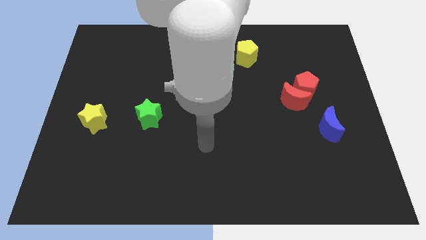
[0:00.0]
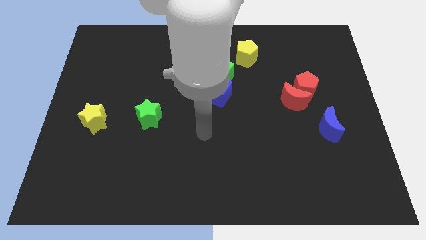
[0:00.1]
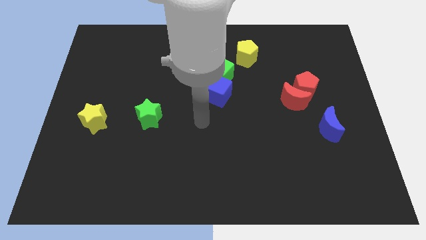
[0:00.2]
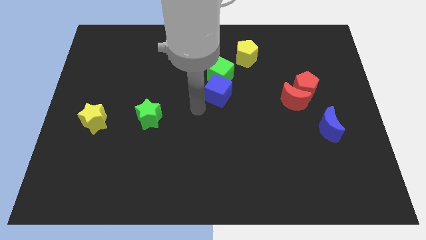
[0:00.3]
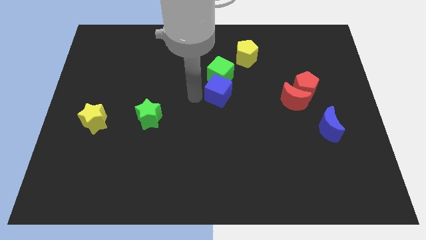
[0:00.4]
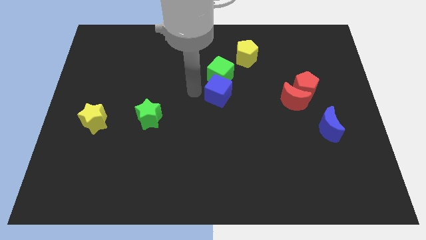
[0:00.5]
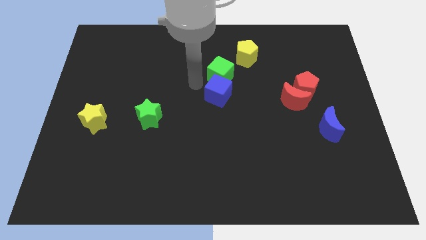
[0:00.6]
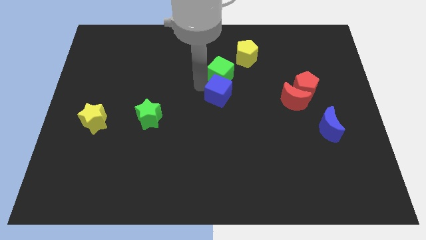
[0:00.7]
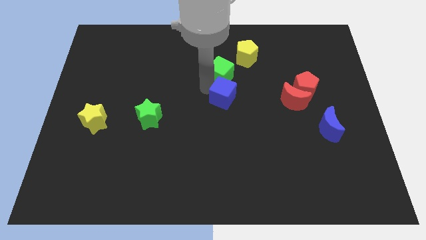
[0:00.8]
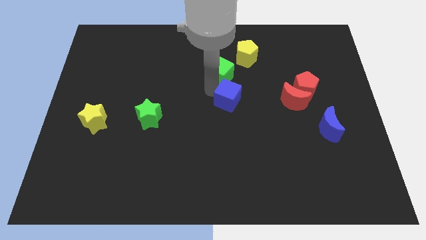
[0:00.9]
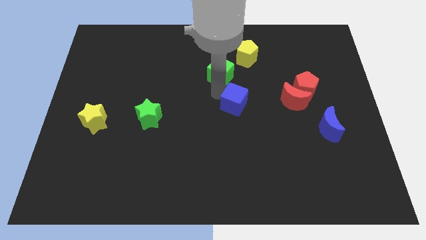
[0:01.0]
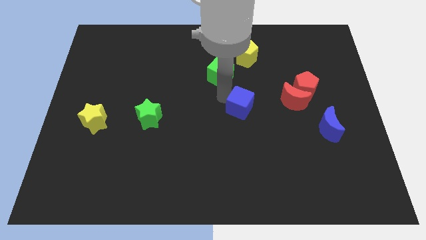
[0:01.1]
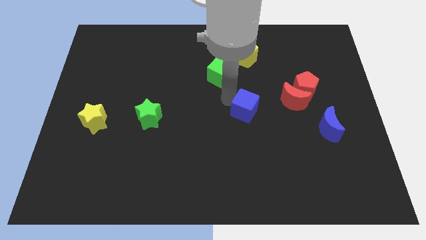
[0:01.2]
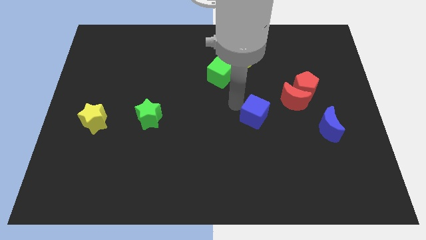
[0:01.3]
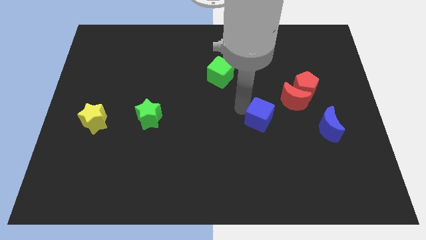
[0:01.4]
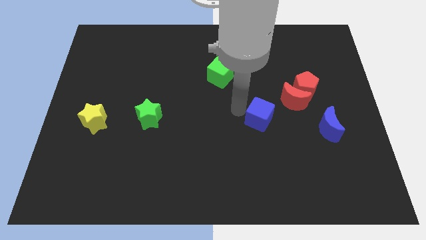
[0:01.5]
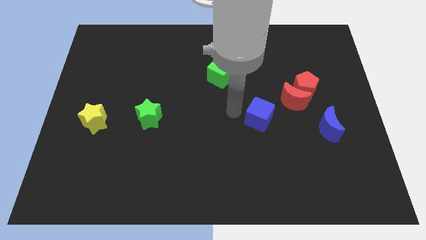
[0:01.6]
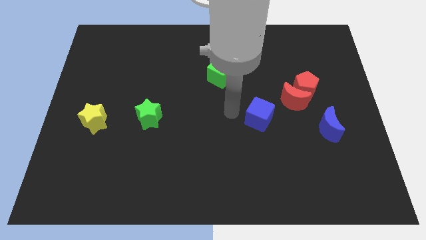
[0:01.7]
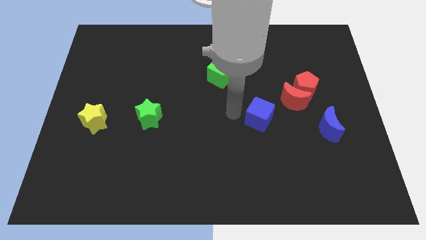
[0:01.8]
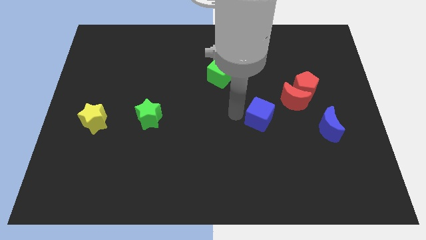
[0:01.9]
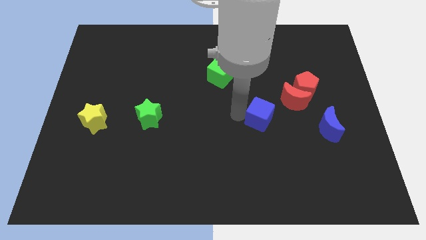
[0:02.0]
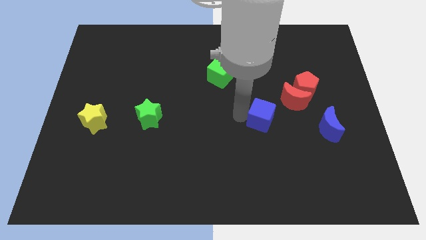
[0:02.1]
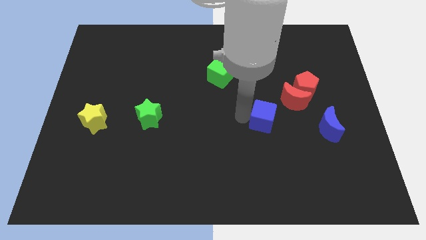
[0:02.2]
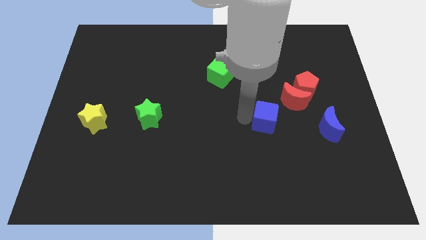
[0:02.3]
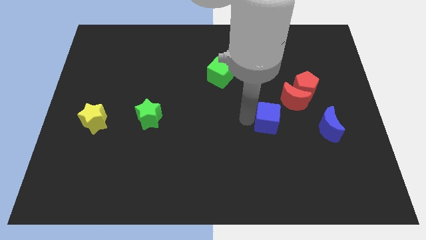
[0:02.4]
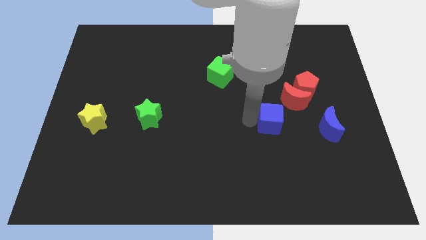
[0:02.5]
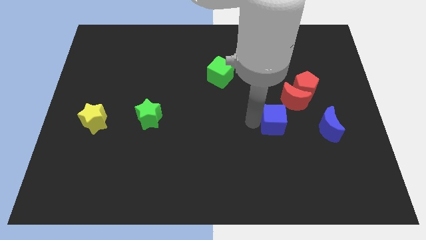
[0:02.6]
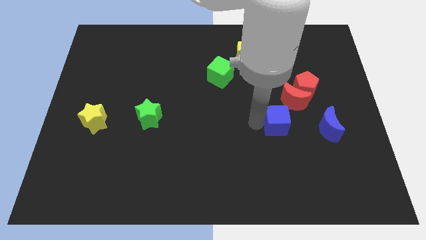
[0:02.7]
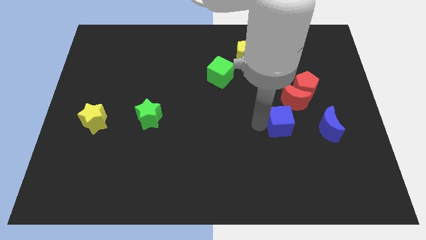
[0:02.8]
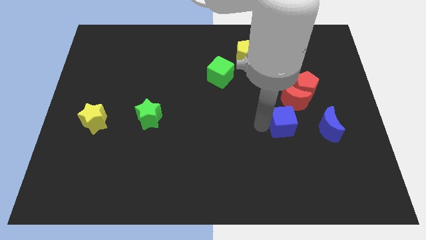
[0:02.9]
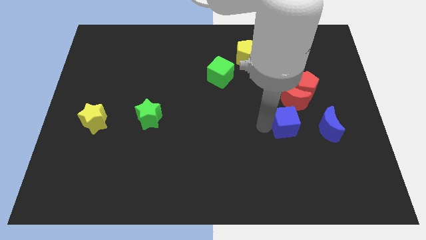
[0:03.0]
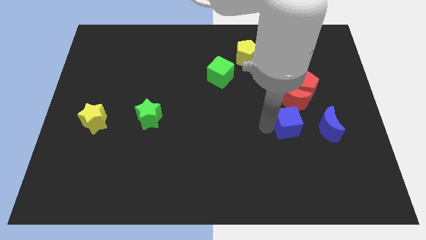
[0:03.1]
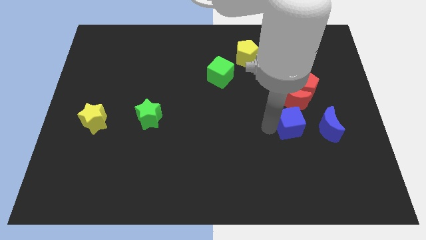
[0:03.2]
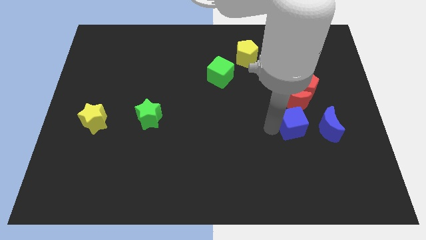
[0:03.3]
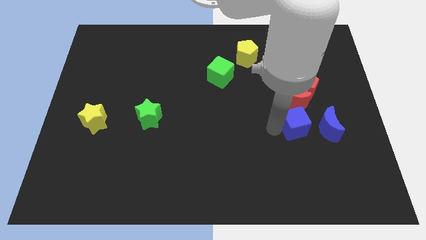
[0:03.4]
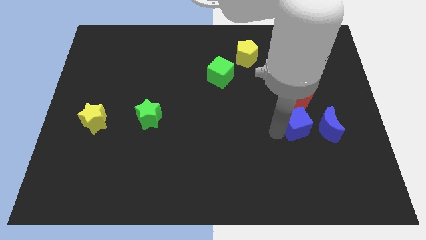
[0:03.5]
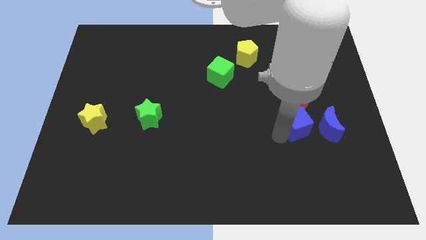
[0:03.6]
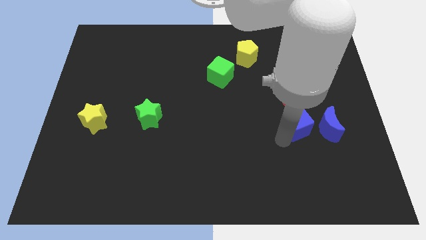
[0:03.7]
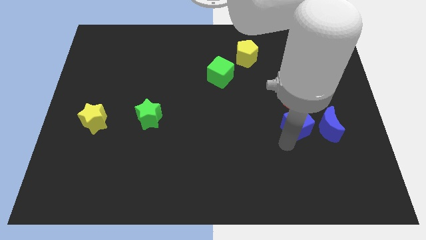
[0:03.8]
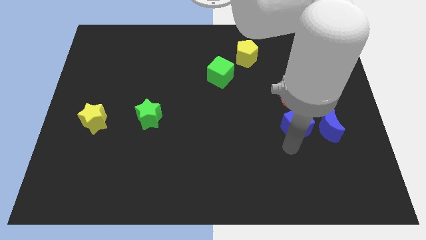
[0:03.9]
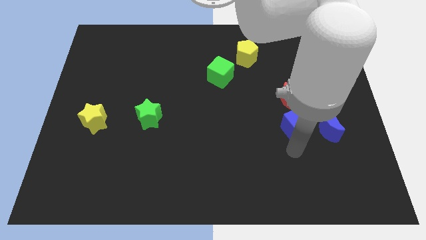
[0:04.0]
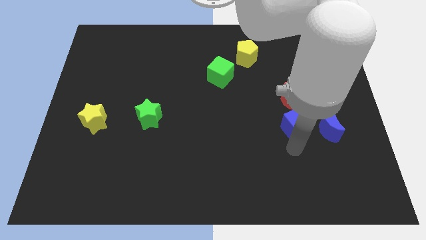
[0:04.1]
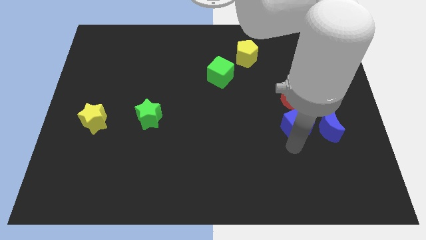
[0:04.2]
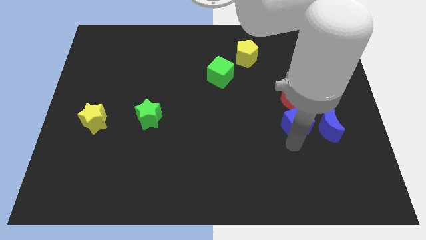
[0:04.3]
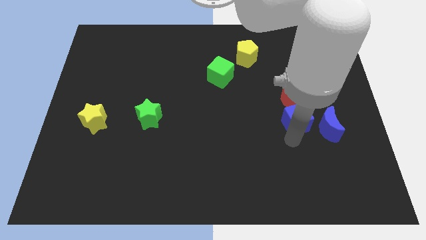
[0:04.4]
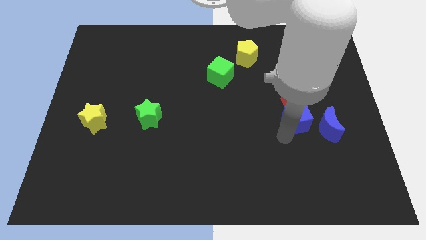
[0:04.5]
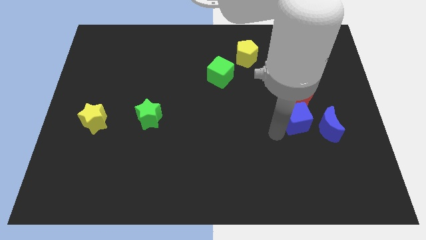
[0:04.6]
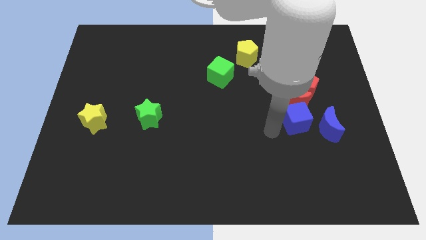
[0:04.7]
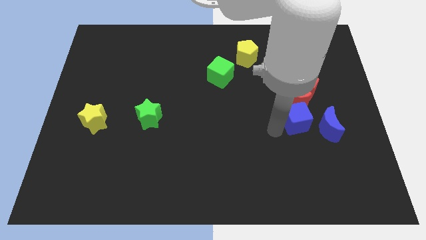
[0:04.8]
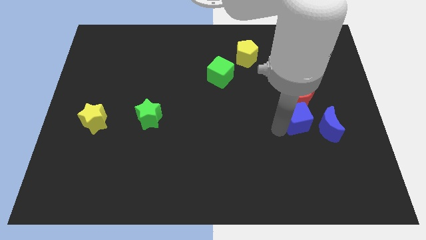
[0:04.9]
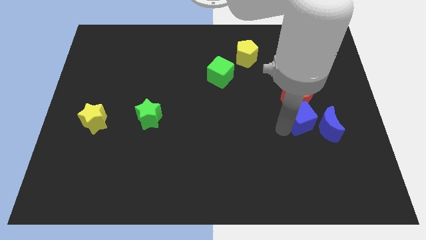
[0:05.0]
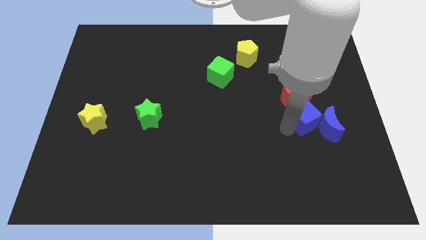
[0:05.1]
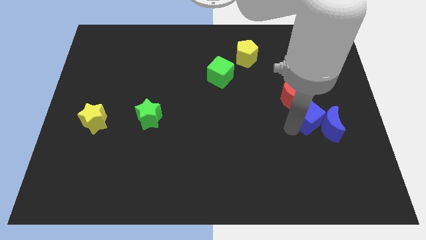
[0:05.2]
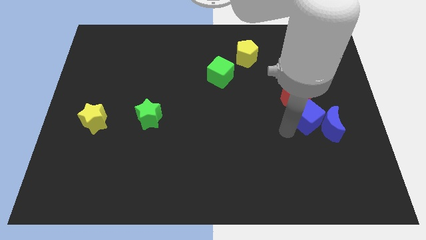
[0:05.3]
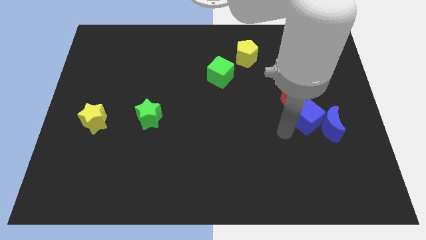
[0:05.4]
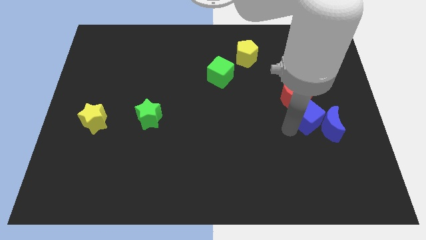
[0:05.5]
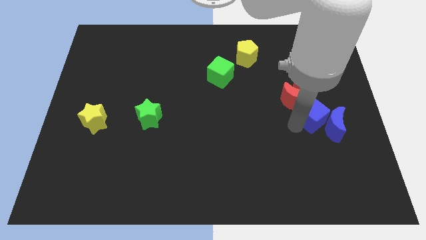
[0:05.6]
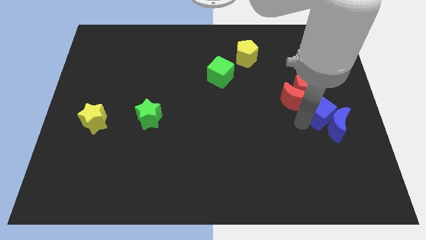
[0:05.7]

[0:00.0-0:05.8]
push the blue cube to the bottom right side of the red pentagon

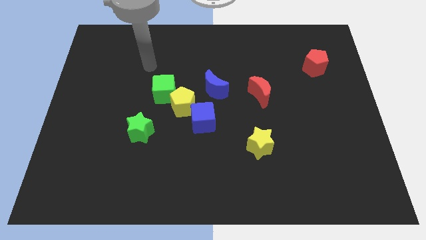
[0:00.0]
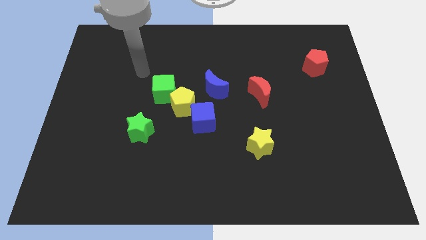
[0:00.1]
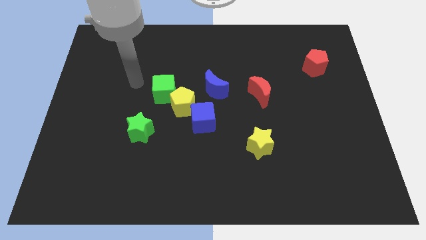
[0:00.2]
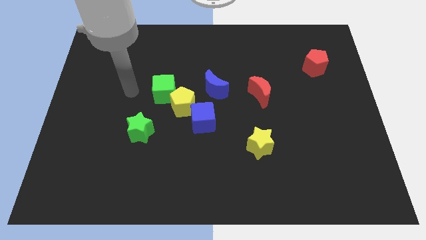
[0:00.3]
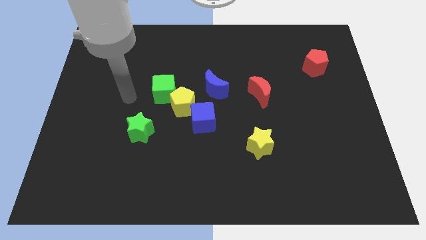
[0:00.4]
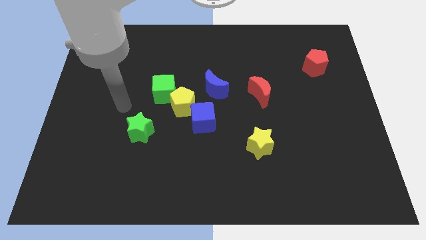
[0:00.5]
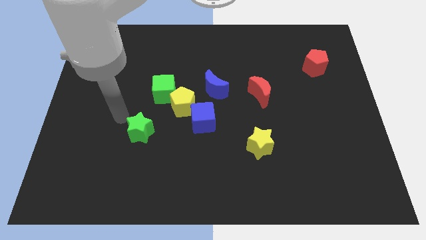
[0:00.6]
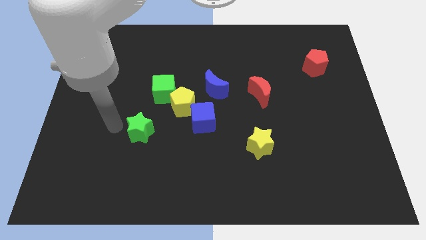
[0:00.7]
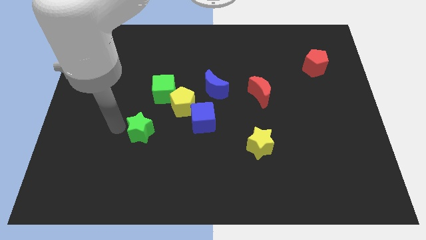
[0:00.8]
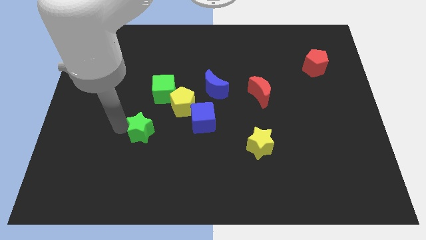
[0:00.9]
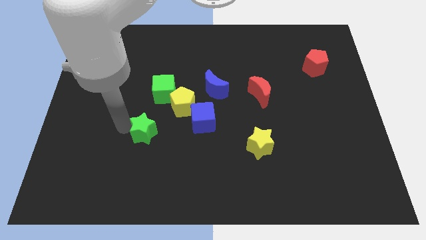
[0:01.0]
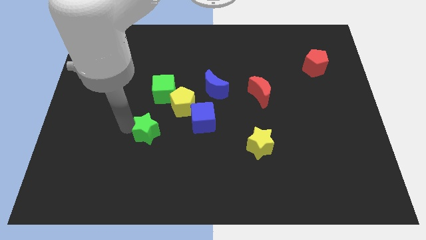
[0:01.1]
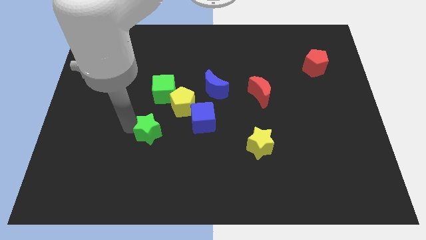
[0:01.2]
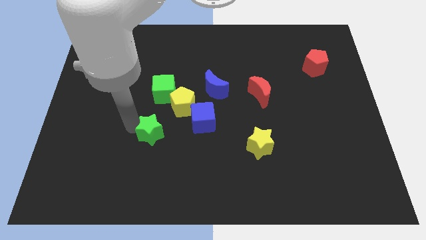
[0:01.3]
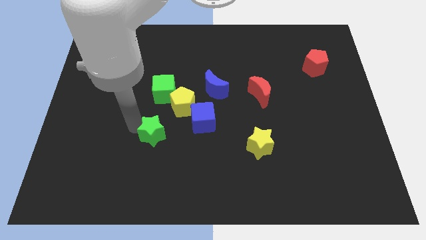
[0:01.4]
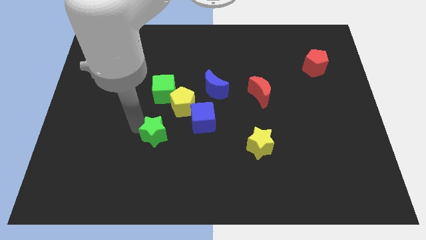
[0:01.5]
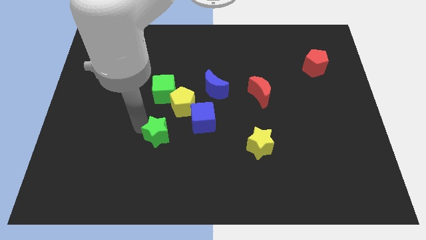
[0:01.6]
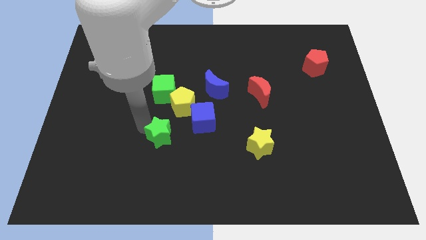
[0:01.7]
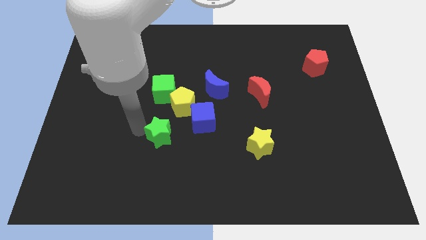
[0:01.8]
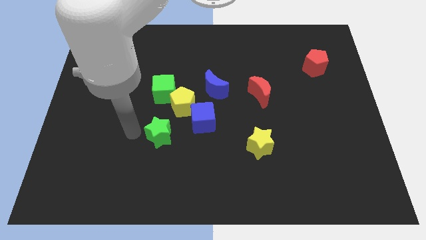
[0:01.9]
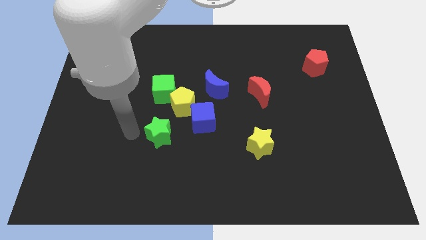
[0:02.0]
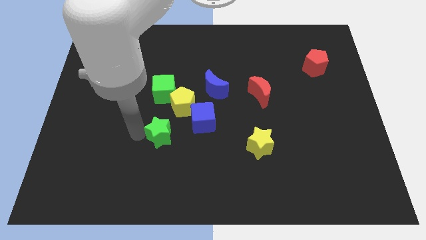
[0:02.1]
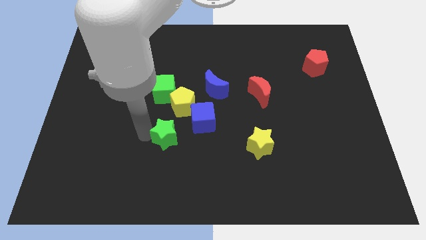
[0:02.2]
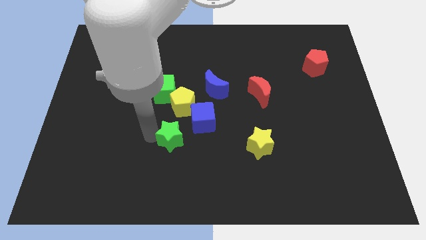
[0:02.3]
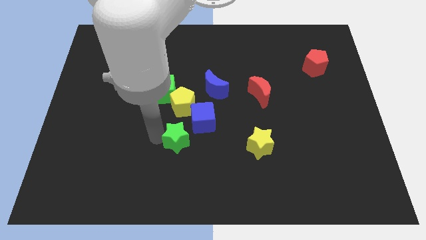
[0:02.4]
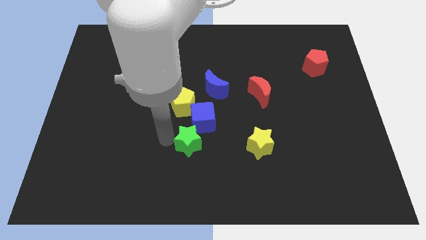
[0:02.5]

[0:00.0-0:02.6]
put the green star to the left of the yellow star
